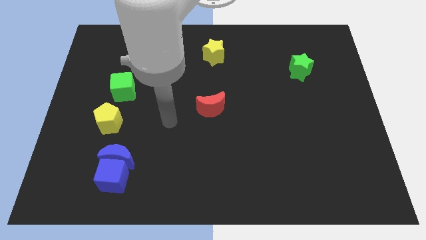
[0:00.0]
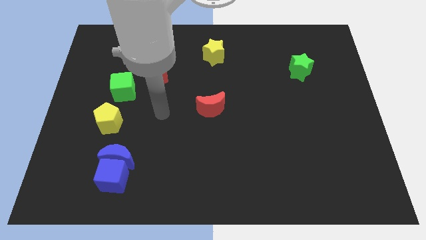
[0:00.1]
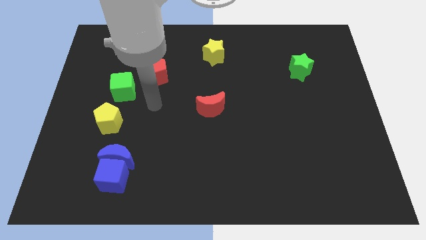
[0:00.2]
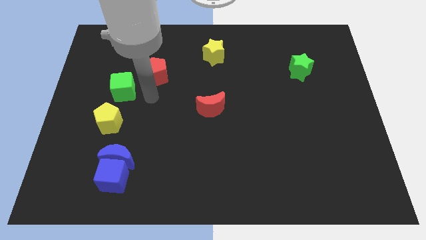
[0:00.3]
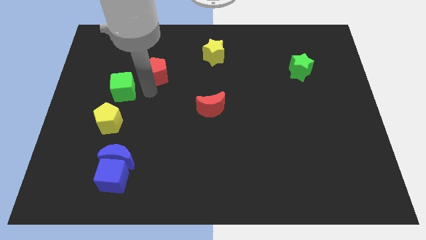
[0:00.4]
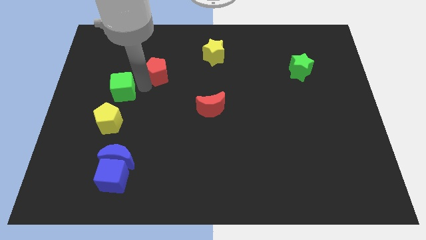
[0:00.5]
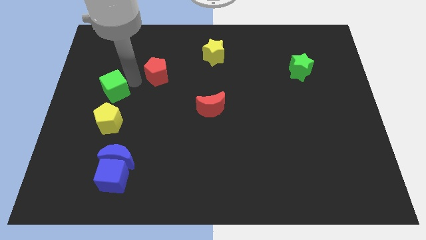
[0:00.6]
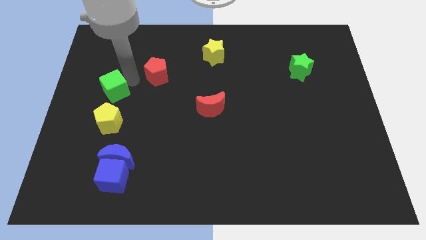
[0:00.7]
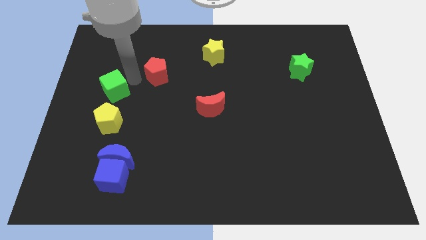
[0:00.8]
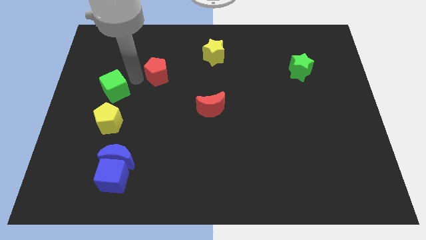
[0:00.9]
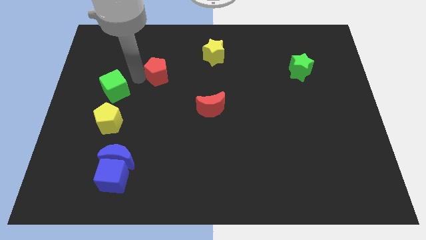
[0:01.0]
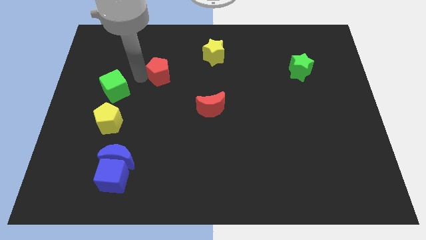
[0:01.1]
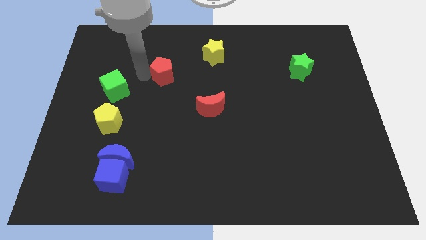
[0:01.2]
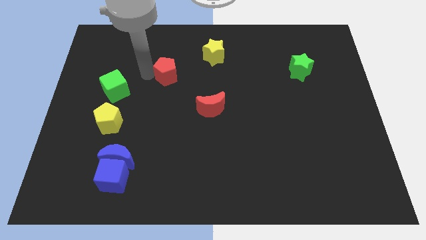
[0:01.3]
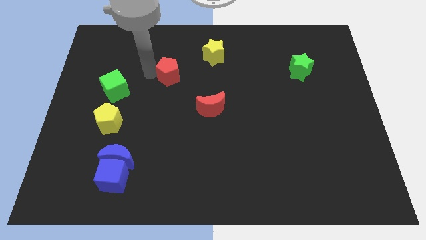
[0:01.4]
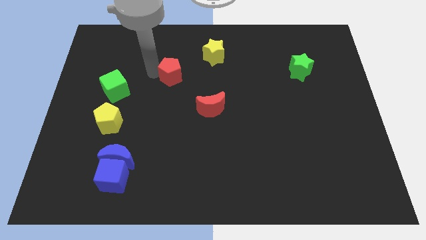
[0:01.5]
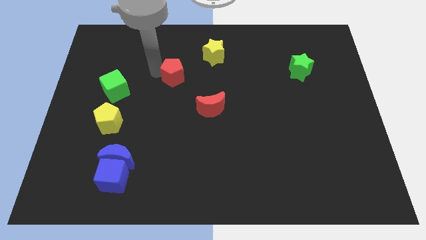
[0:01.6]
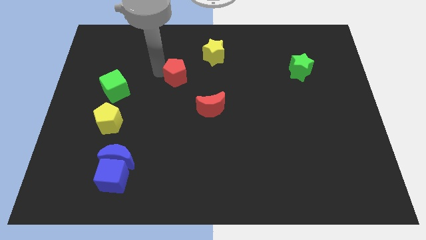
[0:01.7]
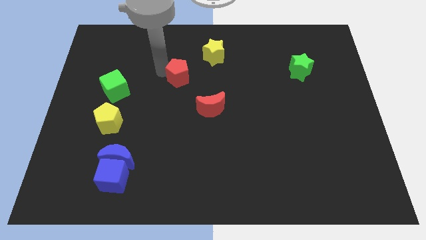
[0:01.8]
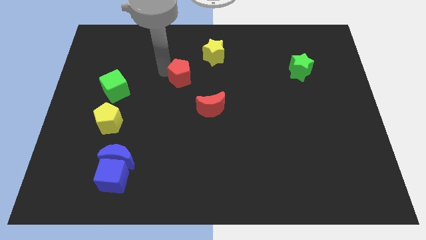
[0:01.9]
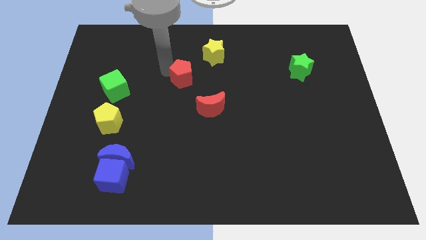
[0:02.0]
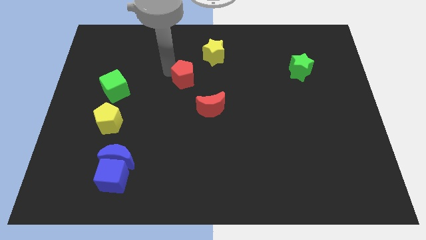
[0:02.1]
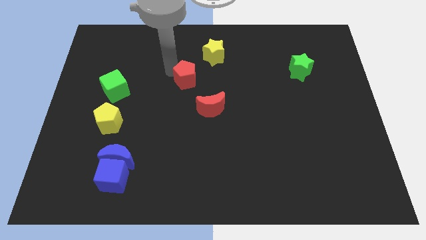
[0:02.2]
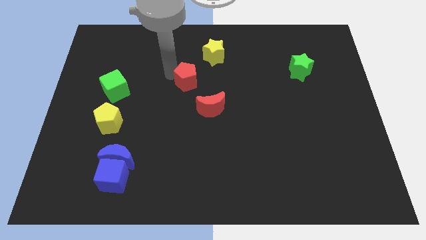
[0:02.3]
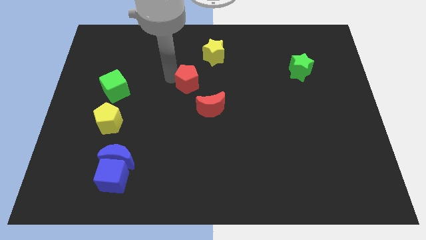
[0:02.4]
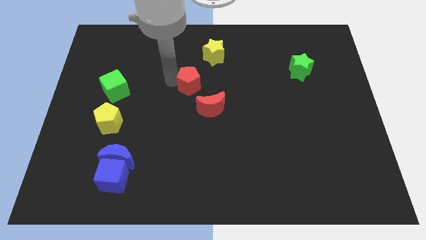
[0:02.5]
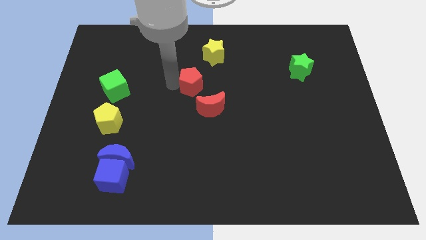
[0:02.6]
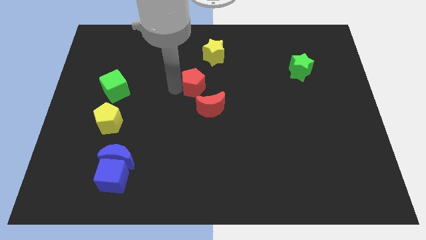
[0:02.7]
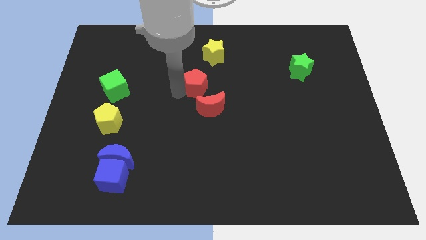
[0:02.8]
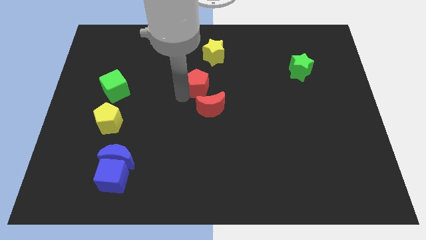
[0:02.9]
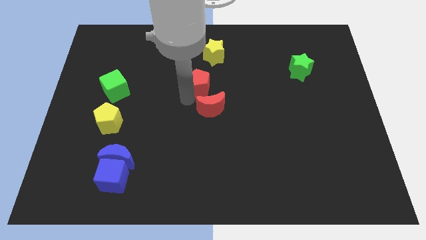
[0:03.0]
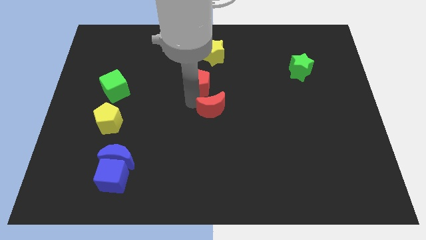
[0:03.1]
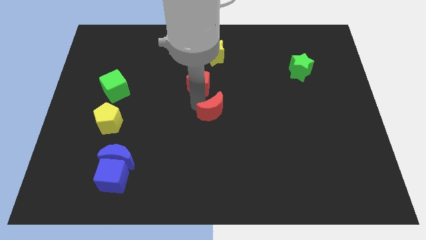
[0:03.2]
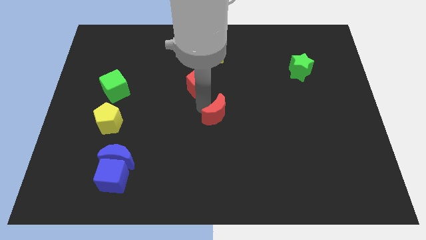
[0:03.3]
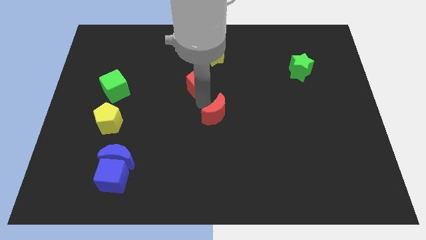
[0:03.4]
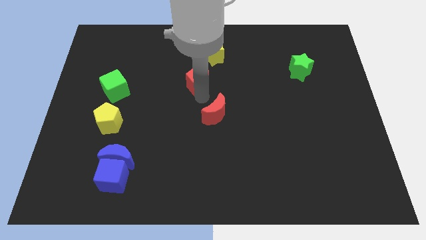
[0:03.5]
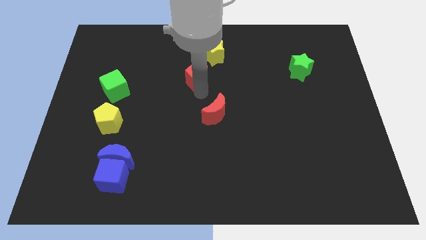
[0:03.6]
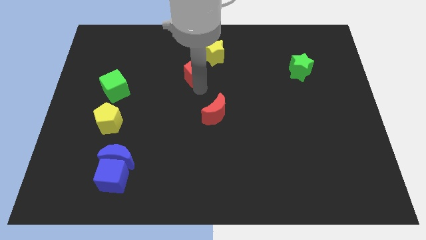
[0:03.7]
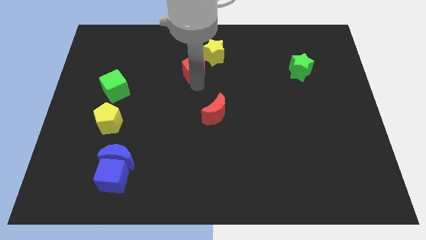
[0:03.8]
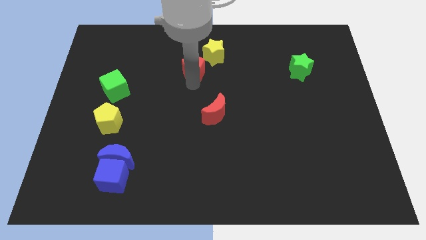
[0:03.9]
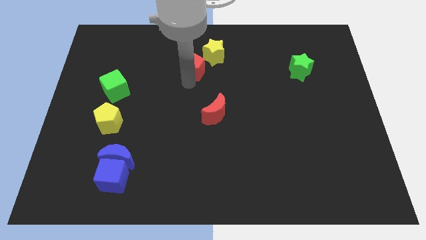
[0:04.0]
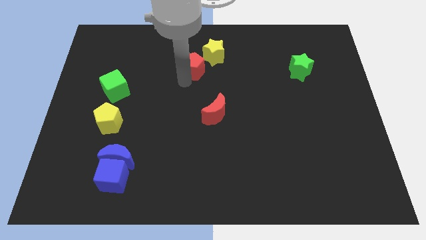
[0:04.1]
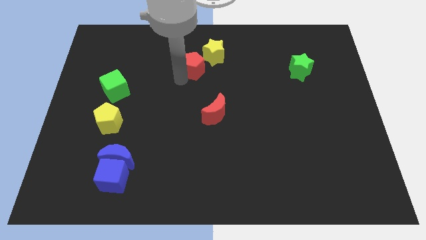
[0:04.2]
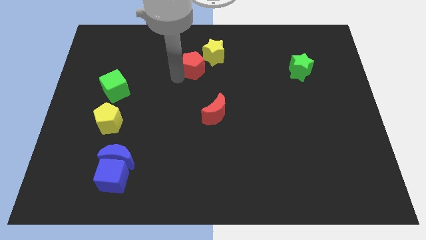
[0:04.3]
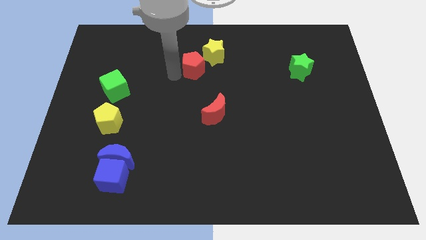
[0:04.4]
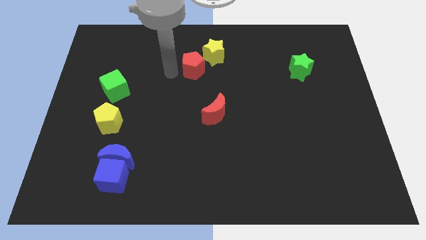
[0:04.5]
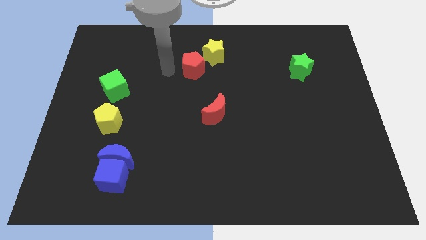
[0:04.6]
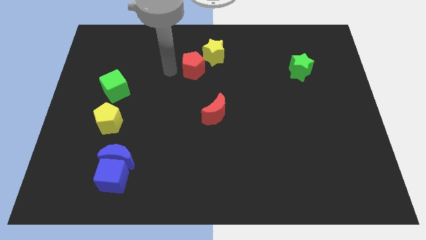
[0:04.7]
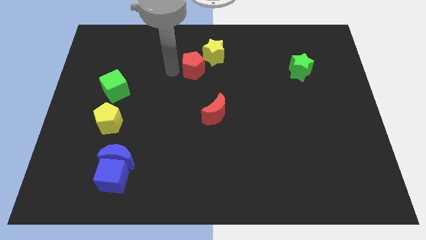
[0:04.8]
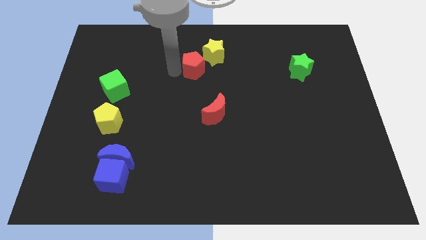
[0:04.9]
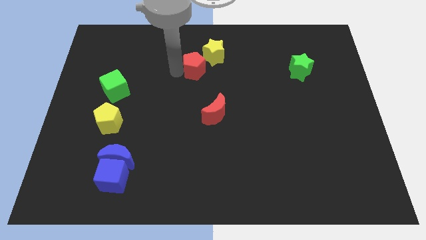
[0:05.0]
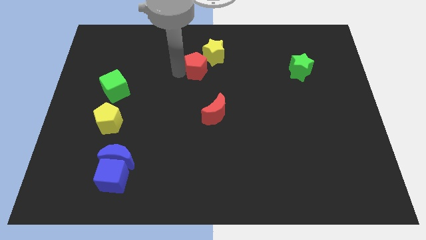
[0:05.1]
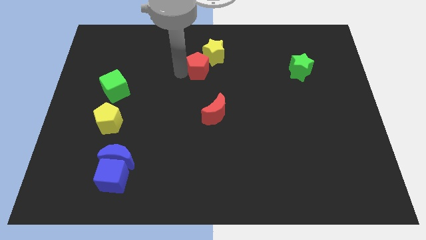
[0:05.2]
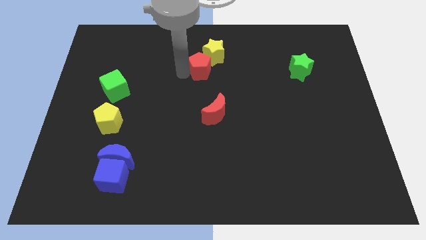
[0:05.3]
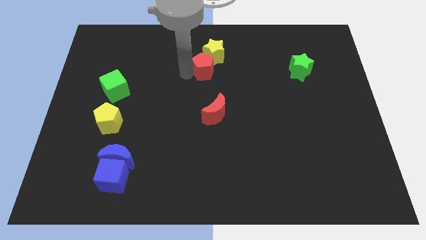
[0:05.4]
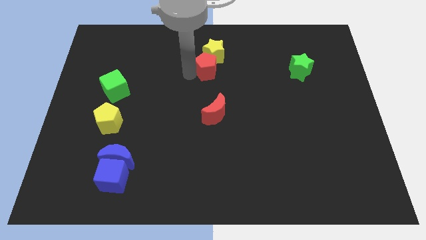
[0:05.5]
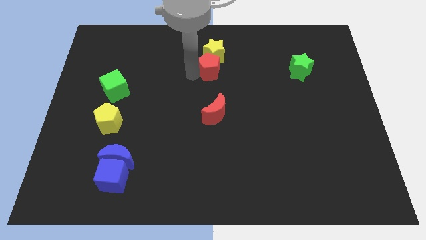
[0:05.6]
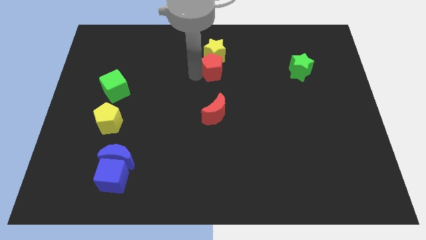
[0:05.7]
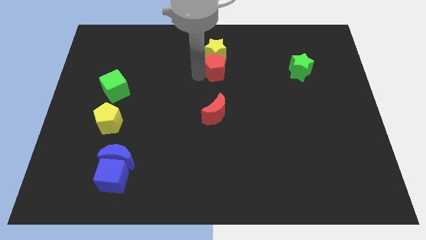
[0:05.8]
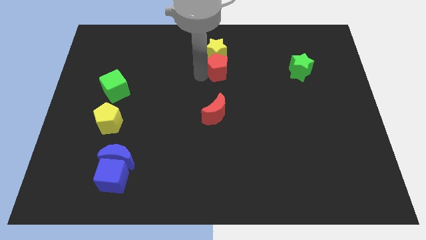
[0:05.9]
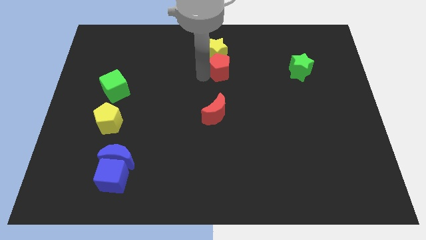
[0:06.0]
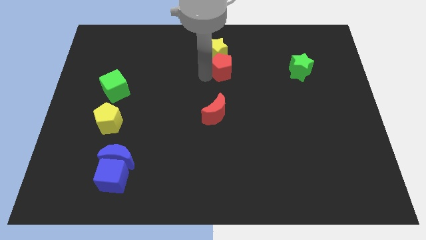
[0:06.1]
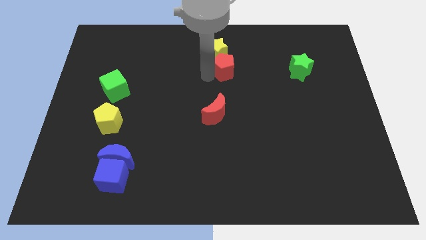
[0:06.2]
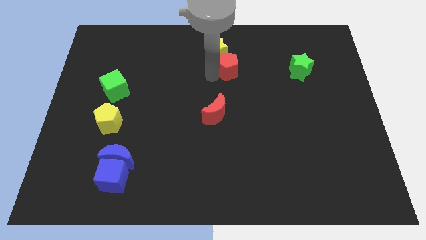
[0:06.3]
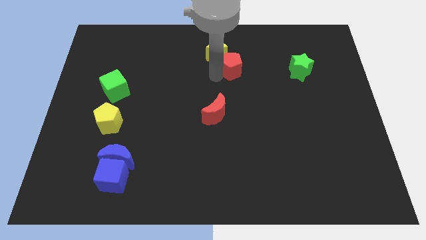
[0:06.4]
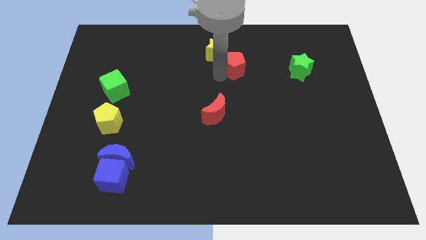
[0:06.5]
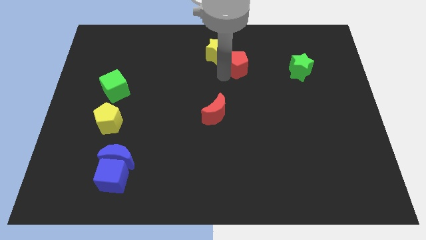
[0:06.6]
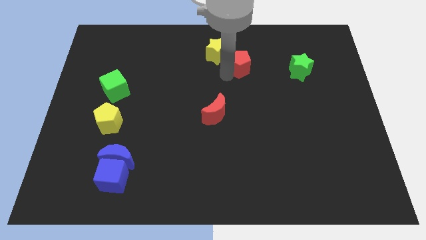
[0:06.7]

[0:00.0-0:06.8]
slide the red pentagon right of the yellow star

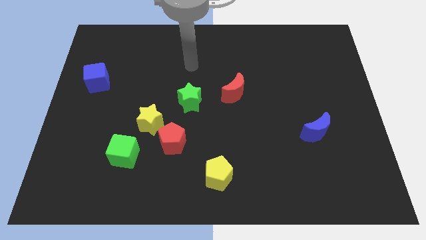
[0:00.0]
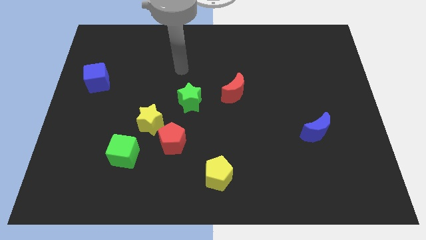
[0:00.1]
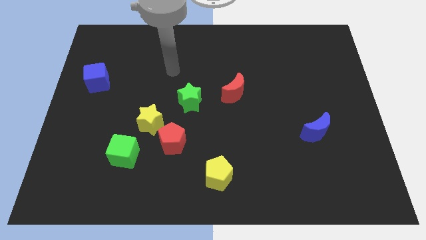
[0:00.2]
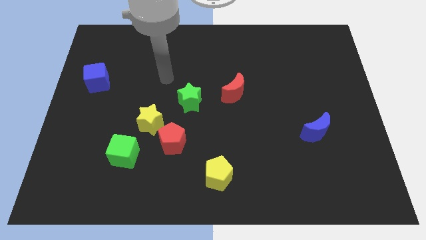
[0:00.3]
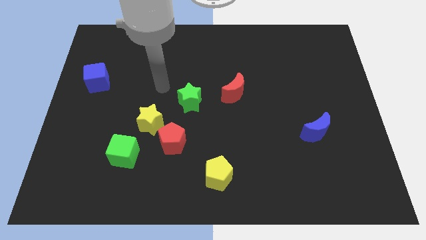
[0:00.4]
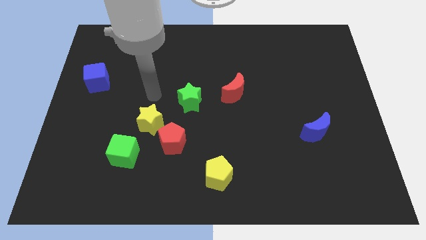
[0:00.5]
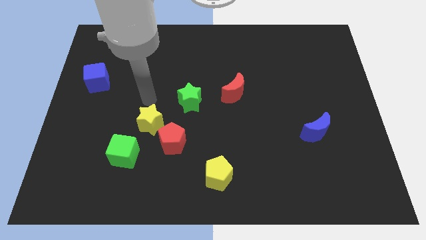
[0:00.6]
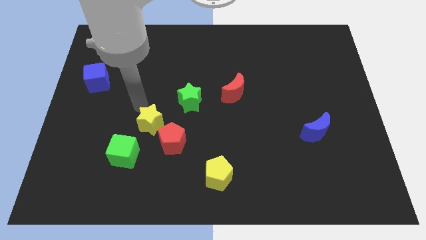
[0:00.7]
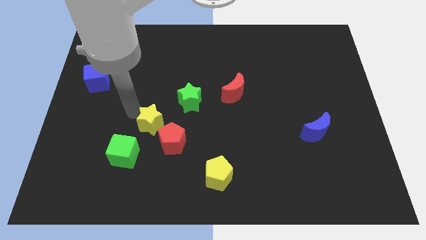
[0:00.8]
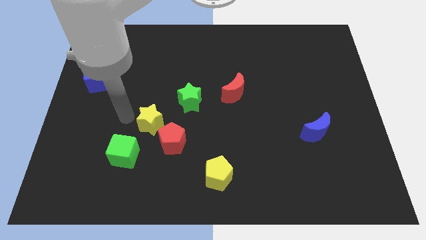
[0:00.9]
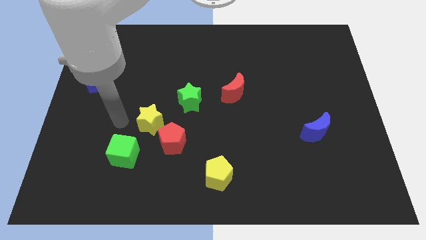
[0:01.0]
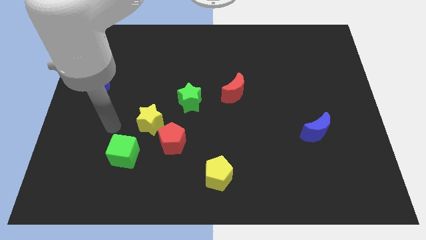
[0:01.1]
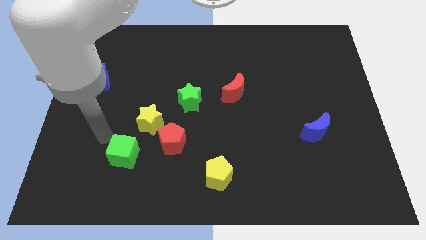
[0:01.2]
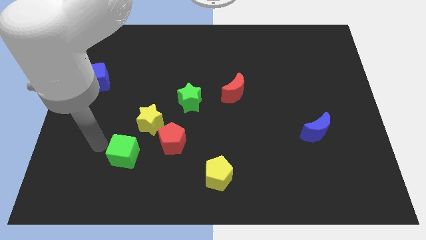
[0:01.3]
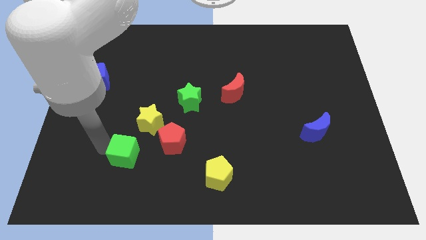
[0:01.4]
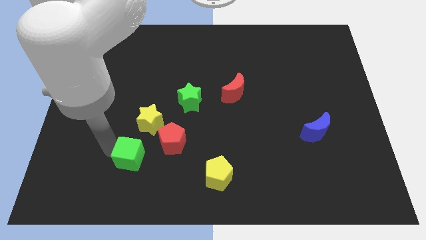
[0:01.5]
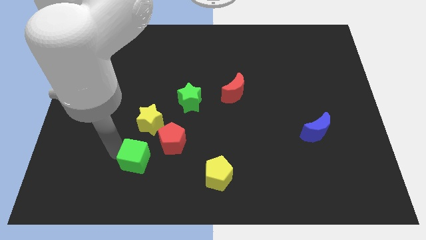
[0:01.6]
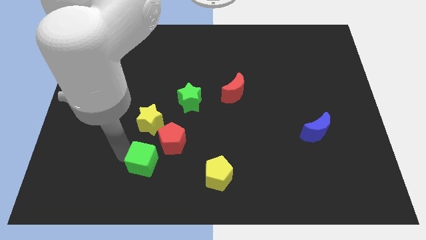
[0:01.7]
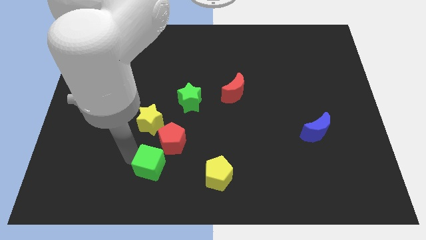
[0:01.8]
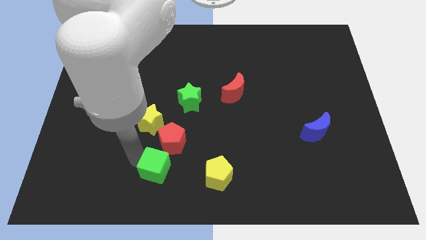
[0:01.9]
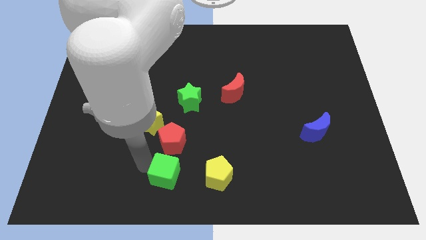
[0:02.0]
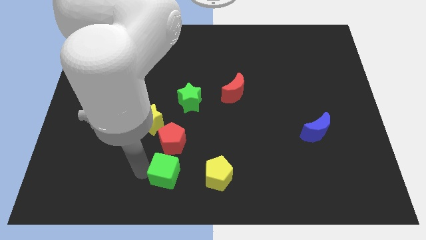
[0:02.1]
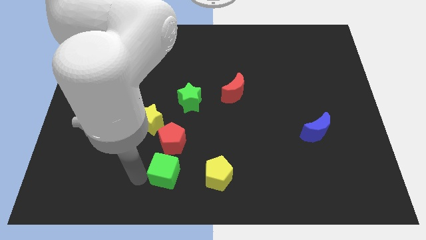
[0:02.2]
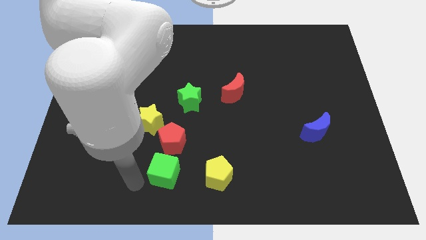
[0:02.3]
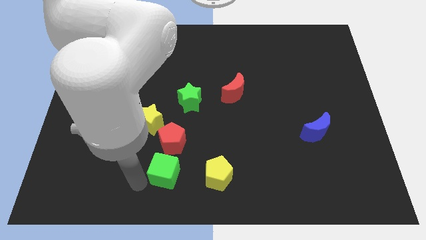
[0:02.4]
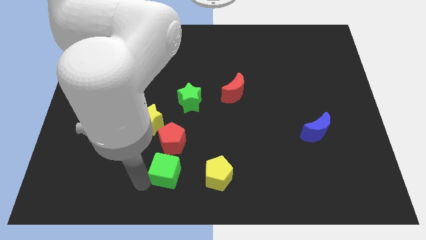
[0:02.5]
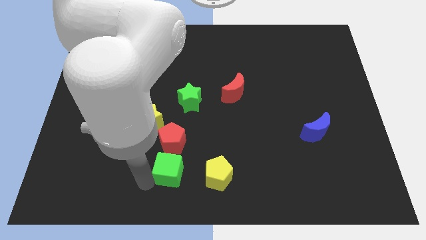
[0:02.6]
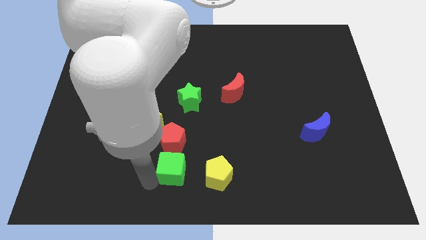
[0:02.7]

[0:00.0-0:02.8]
push the green cube to the bottom right side of the red pentagon
